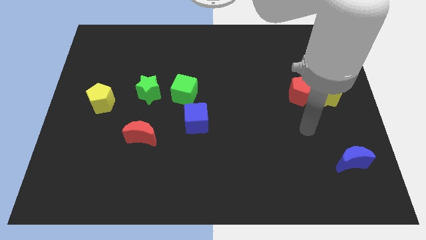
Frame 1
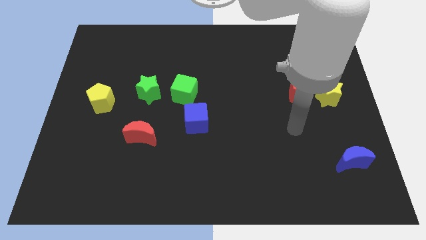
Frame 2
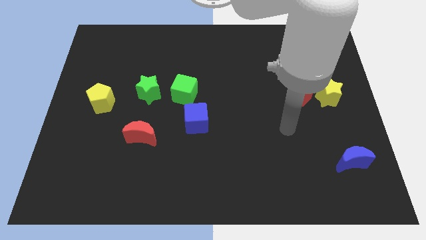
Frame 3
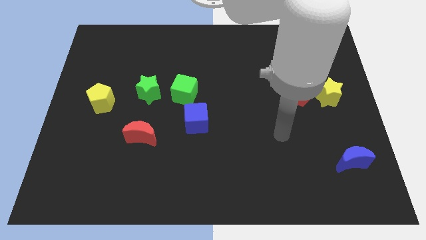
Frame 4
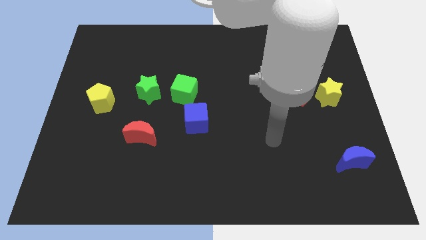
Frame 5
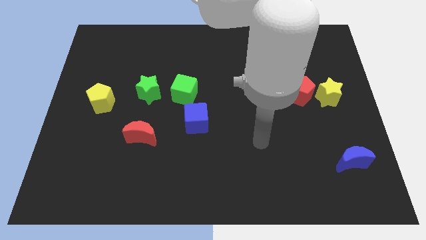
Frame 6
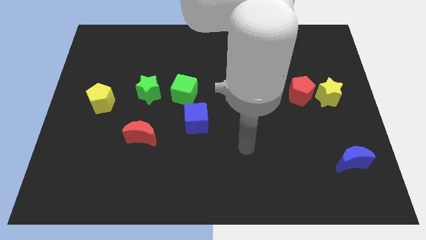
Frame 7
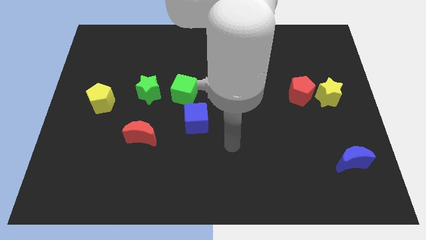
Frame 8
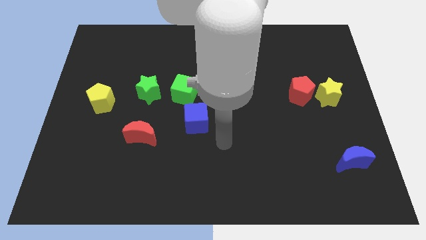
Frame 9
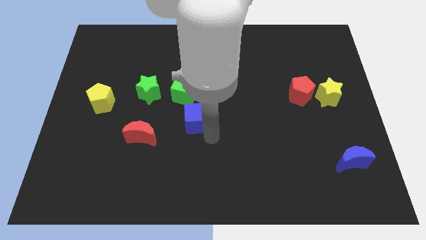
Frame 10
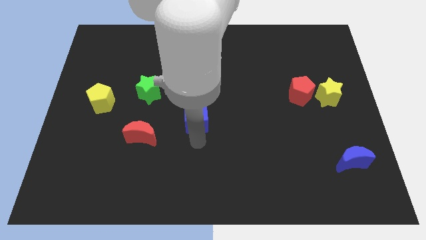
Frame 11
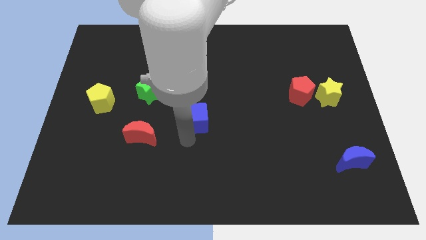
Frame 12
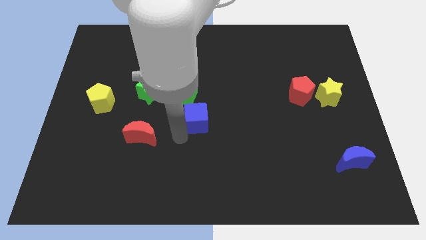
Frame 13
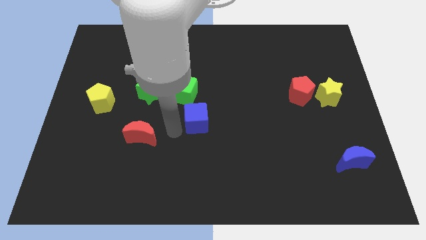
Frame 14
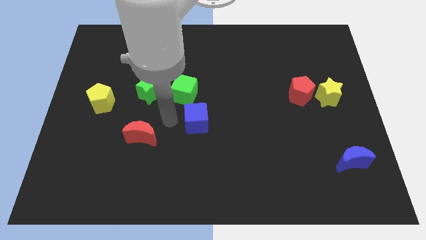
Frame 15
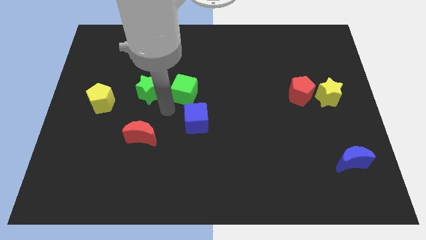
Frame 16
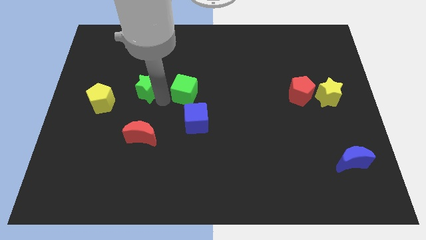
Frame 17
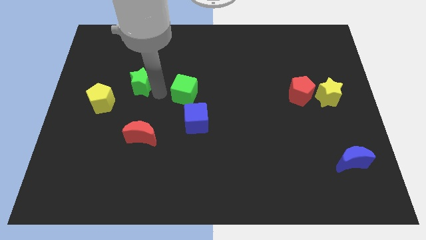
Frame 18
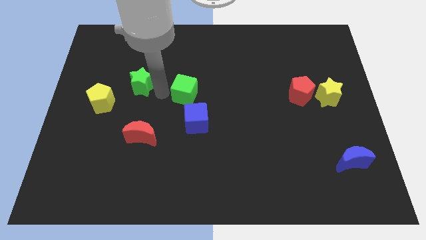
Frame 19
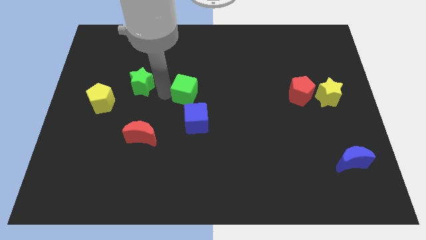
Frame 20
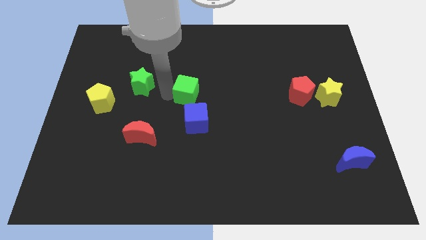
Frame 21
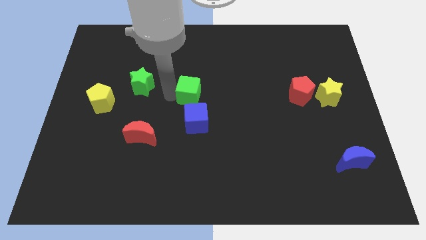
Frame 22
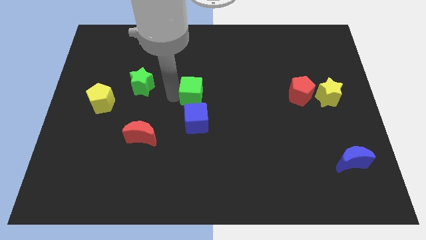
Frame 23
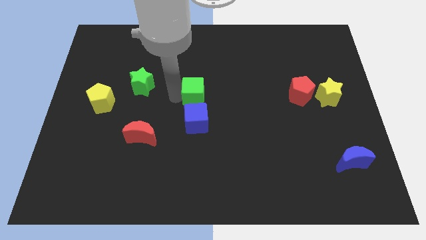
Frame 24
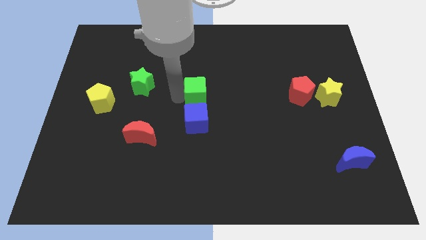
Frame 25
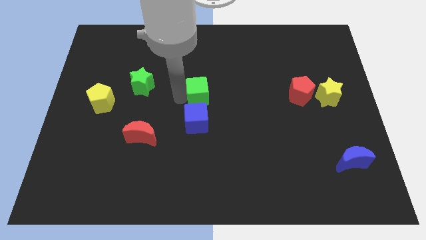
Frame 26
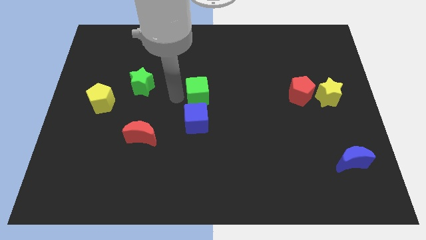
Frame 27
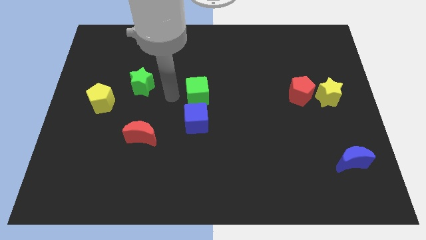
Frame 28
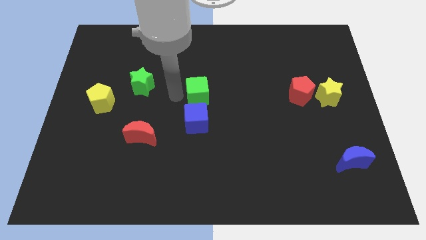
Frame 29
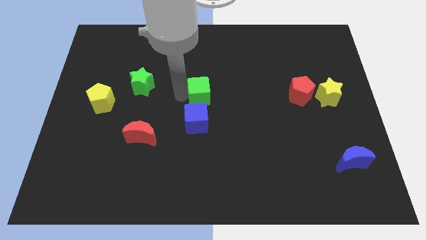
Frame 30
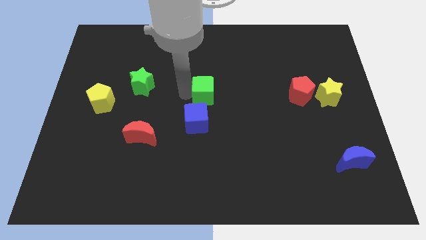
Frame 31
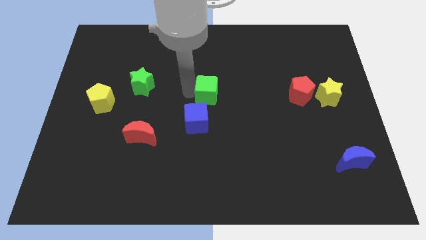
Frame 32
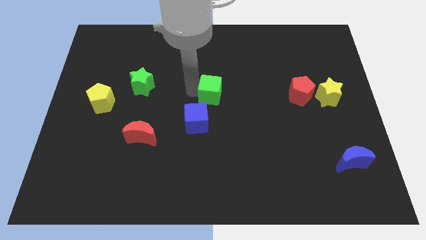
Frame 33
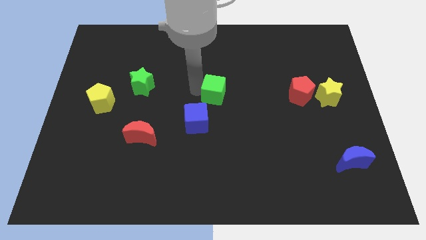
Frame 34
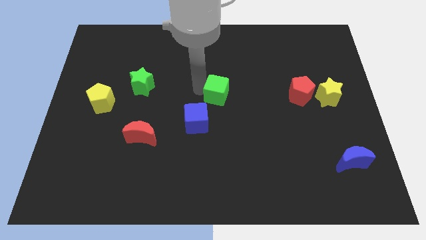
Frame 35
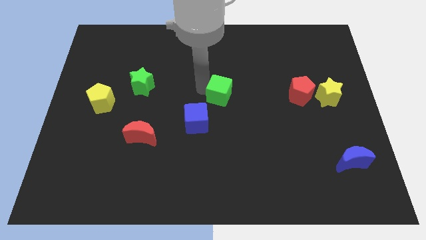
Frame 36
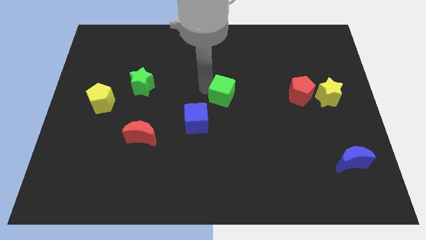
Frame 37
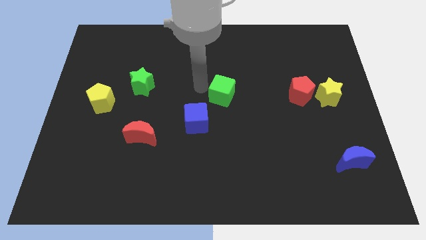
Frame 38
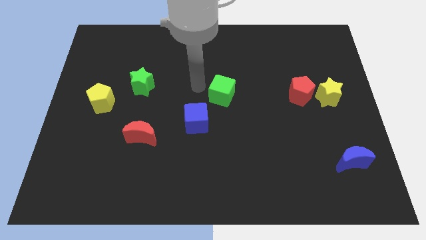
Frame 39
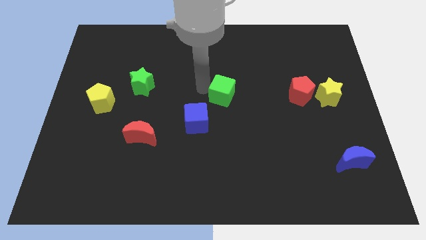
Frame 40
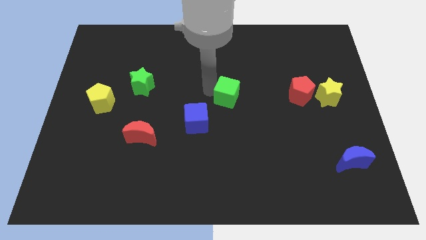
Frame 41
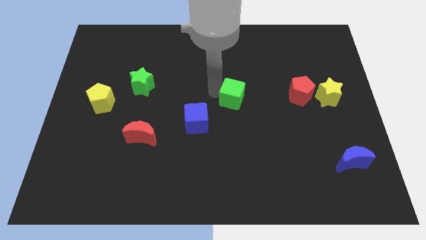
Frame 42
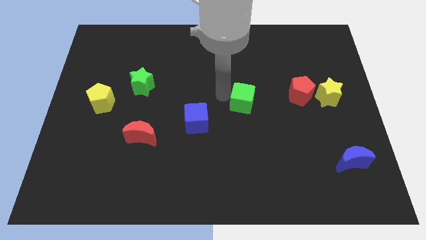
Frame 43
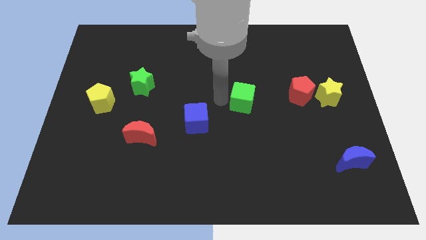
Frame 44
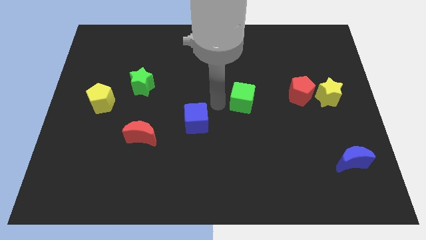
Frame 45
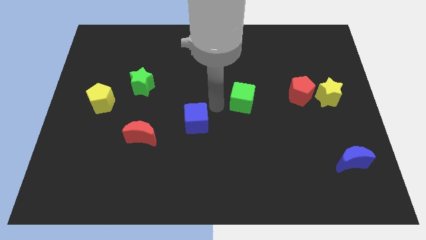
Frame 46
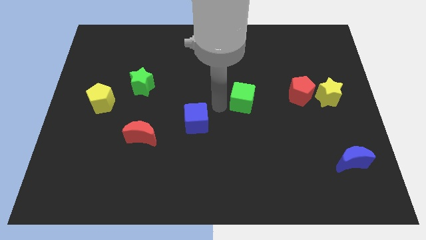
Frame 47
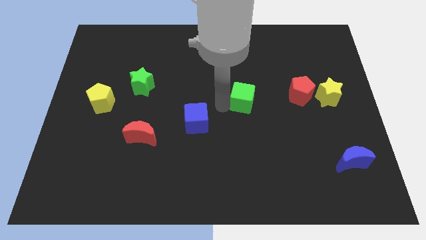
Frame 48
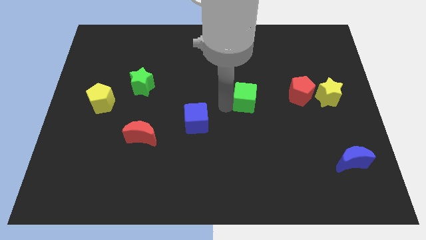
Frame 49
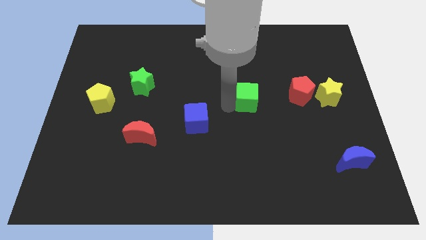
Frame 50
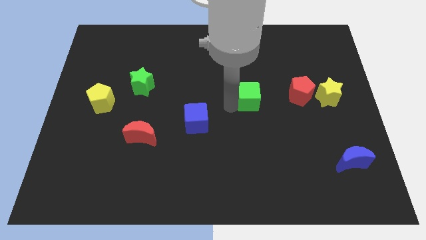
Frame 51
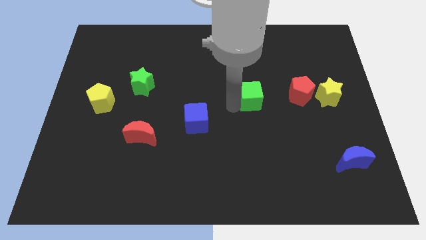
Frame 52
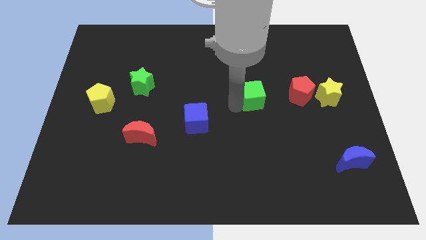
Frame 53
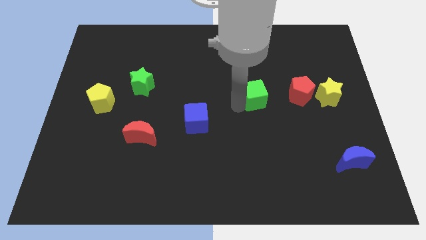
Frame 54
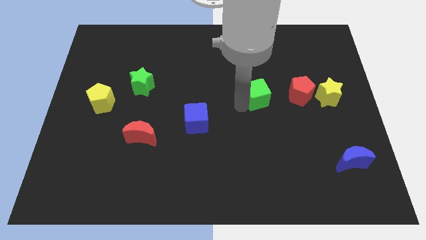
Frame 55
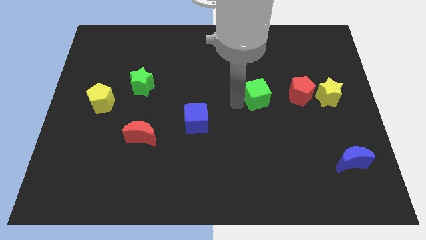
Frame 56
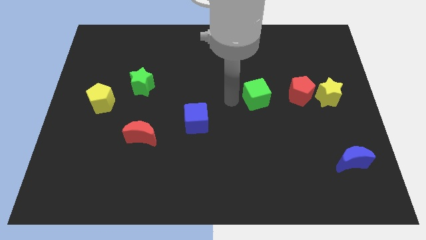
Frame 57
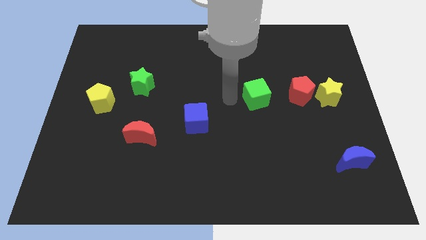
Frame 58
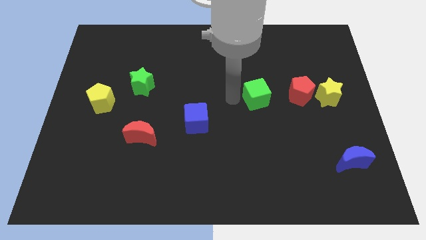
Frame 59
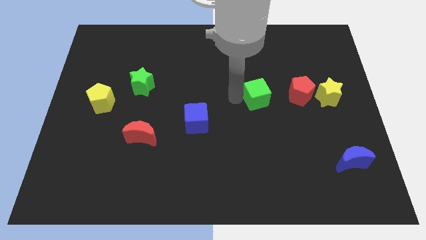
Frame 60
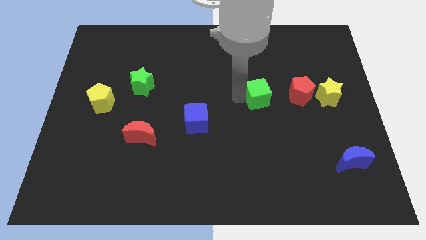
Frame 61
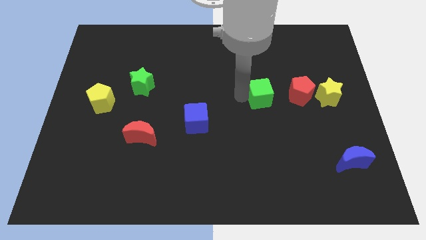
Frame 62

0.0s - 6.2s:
put the green cube left of the yellow star

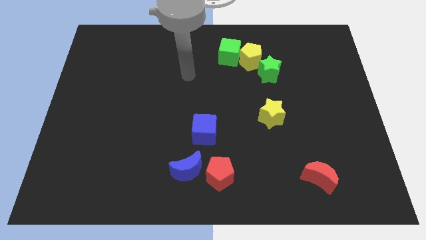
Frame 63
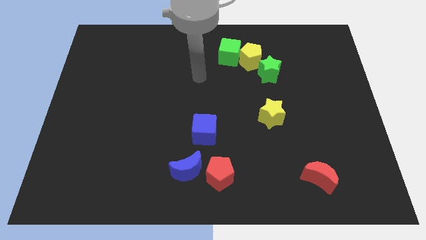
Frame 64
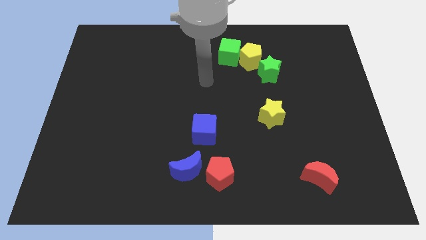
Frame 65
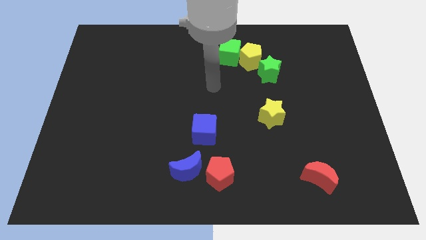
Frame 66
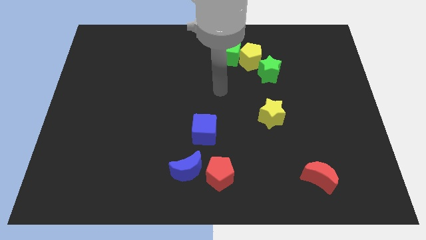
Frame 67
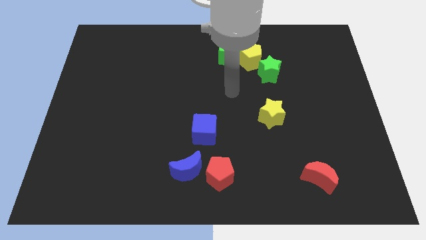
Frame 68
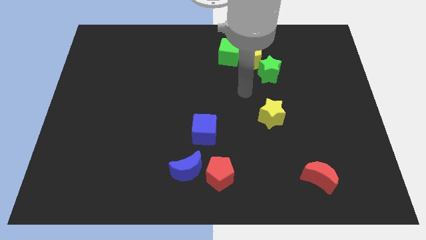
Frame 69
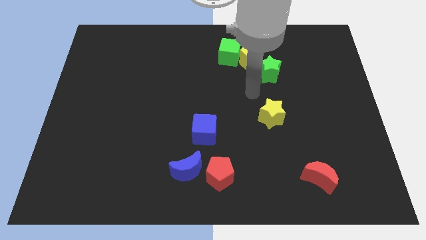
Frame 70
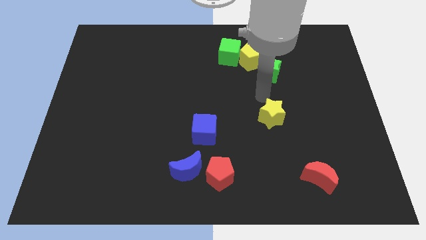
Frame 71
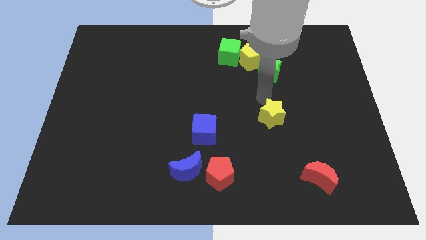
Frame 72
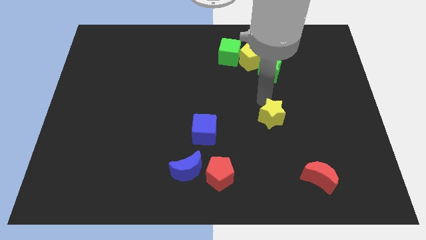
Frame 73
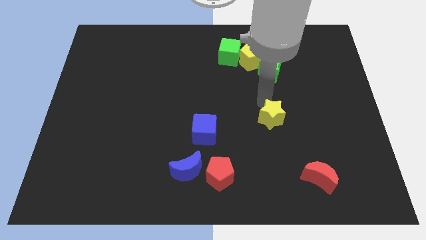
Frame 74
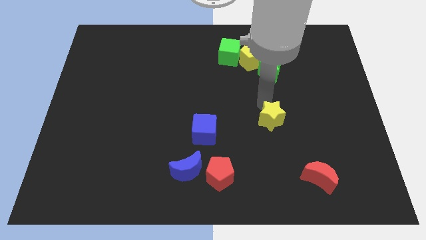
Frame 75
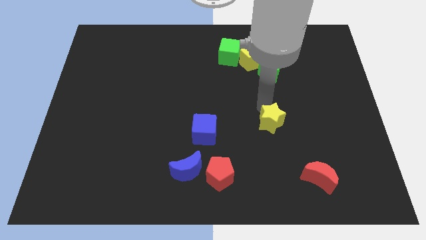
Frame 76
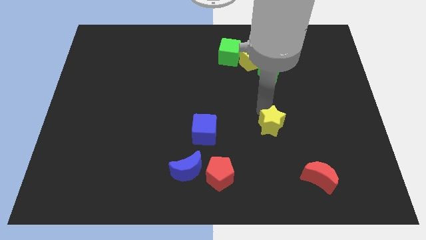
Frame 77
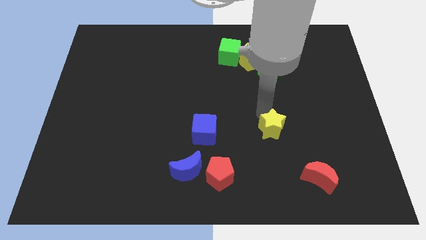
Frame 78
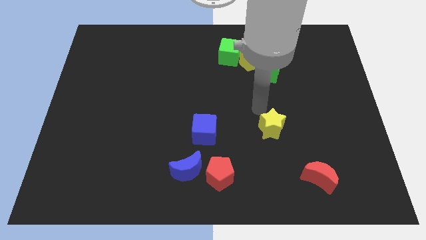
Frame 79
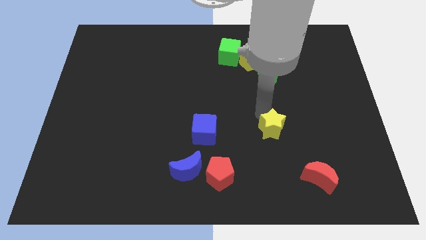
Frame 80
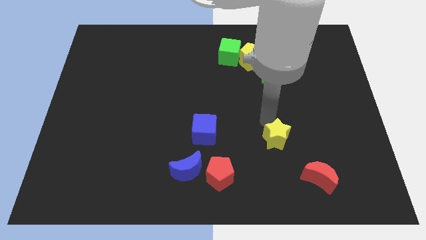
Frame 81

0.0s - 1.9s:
move the yellow star diagonally up and to the left of the red moon
